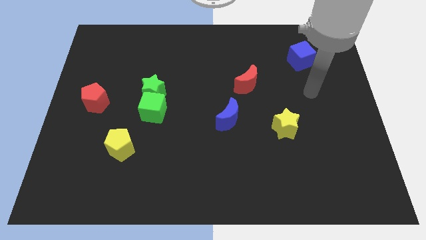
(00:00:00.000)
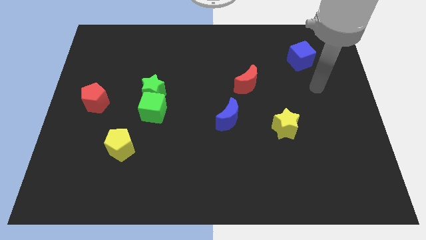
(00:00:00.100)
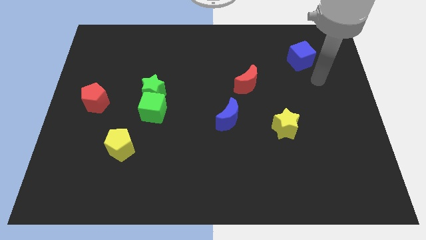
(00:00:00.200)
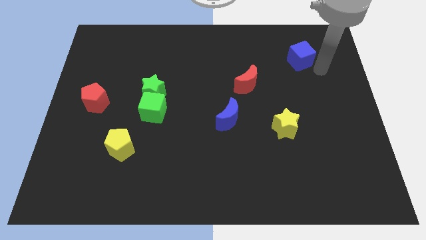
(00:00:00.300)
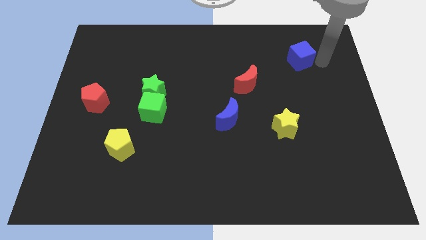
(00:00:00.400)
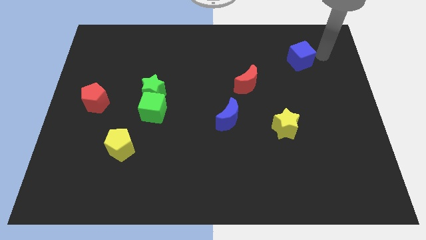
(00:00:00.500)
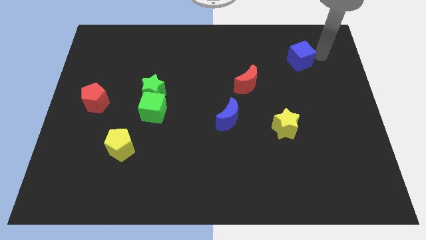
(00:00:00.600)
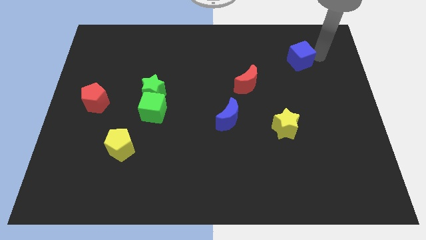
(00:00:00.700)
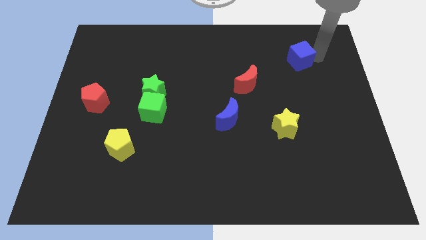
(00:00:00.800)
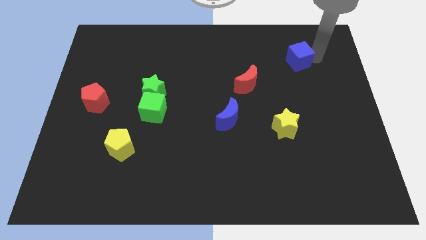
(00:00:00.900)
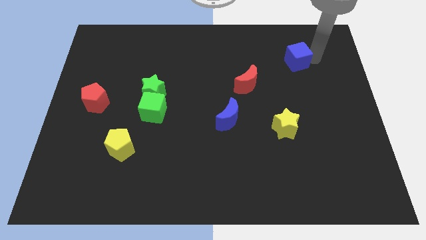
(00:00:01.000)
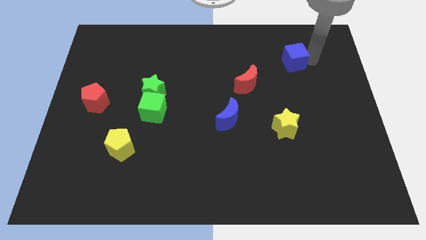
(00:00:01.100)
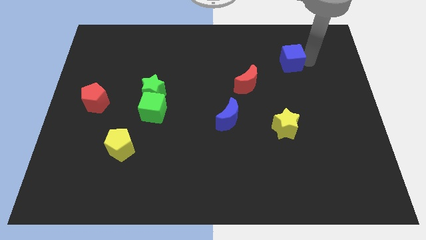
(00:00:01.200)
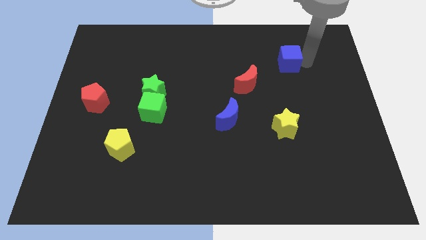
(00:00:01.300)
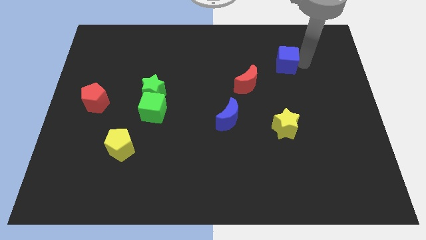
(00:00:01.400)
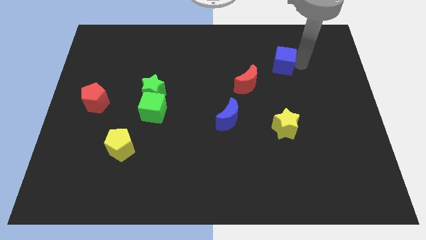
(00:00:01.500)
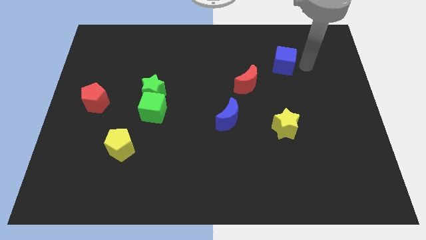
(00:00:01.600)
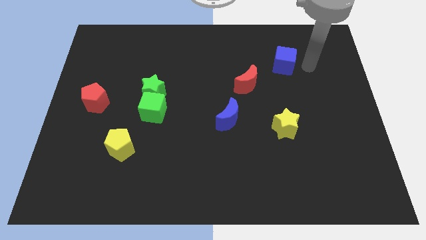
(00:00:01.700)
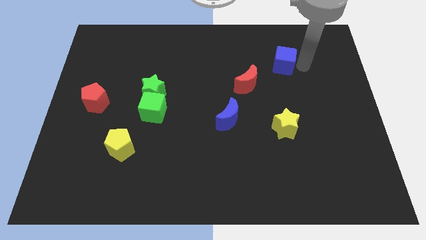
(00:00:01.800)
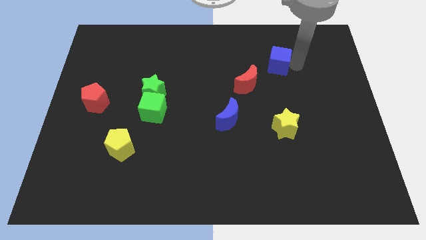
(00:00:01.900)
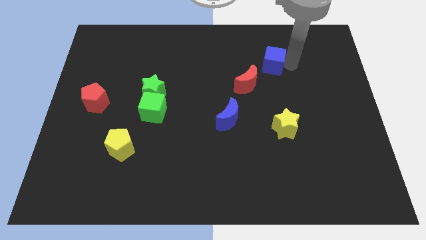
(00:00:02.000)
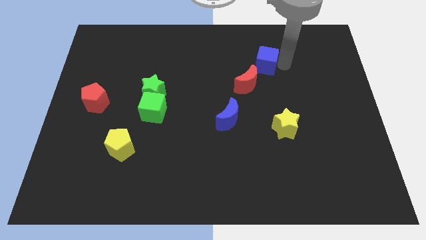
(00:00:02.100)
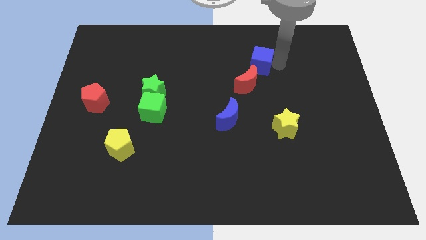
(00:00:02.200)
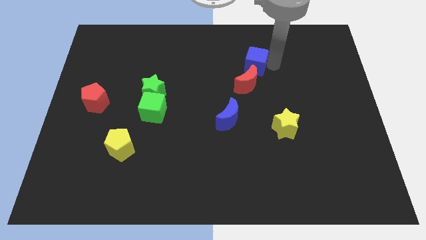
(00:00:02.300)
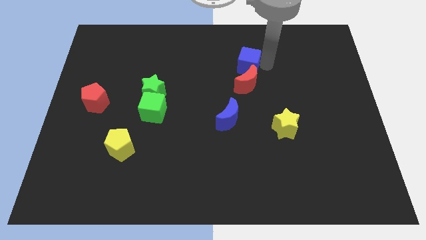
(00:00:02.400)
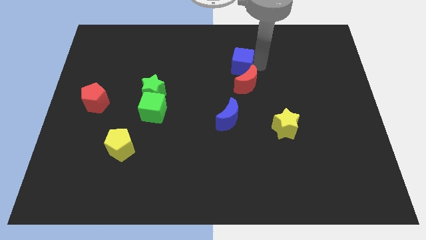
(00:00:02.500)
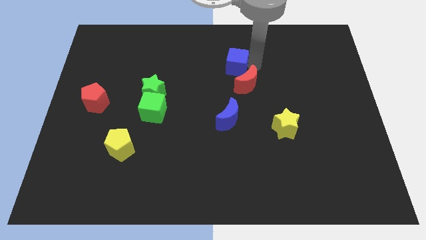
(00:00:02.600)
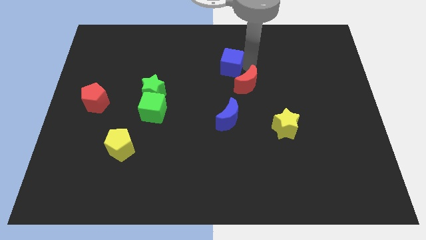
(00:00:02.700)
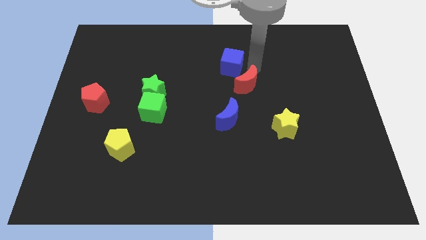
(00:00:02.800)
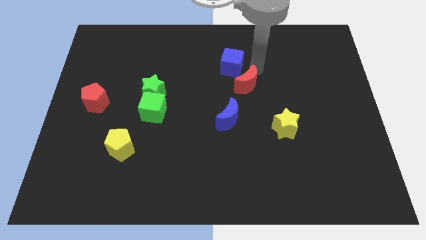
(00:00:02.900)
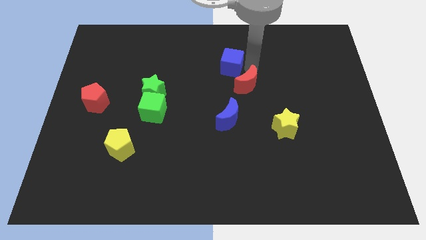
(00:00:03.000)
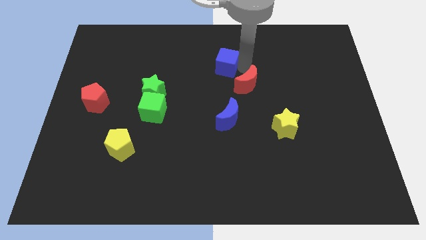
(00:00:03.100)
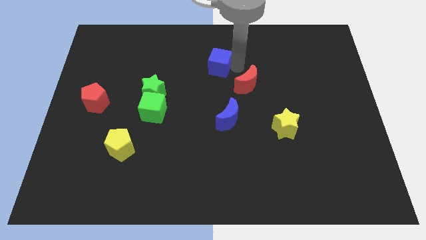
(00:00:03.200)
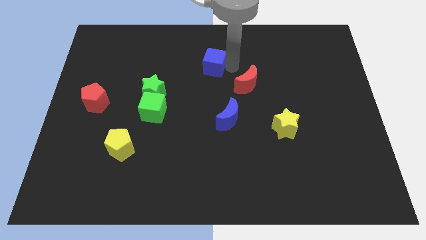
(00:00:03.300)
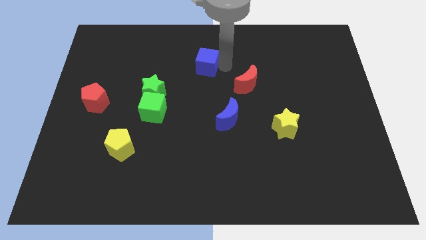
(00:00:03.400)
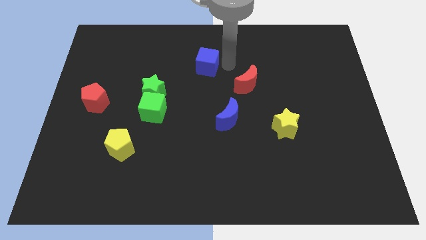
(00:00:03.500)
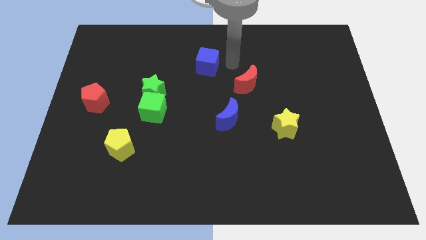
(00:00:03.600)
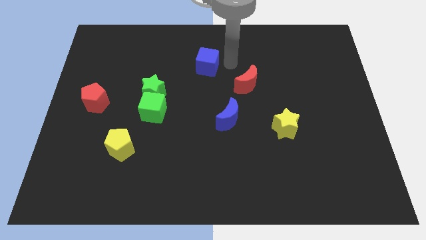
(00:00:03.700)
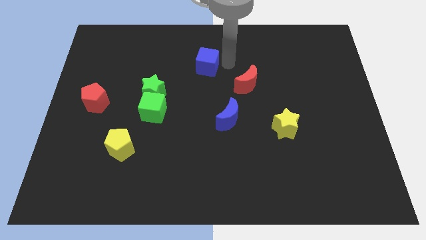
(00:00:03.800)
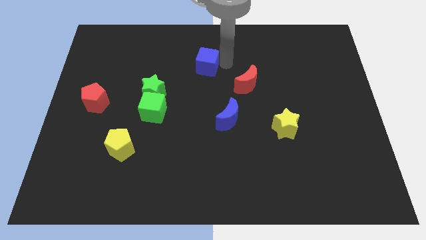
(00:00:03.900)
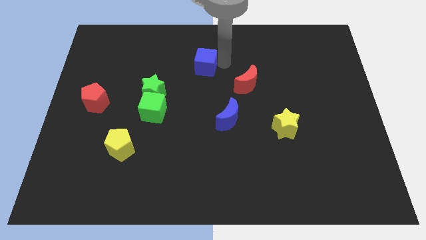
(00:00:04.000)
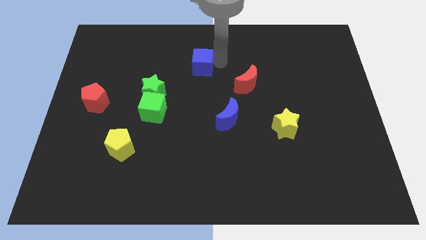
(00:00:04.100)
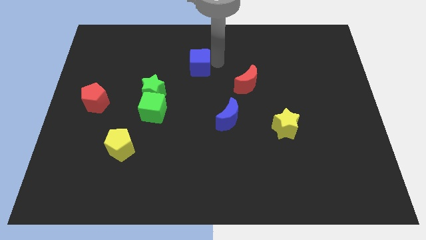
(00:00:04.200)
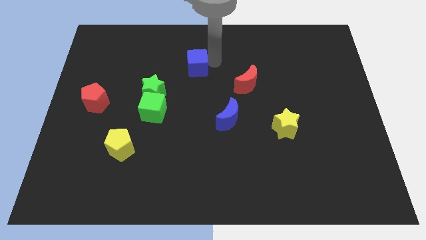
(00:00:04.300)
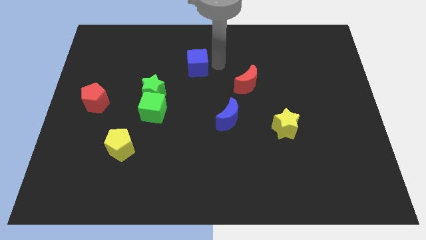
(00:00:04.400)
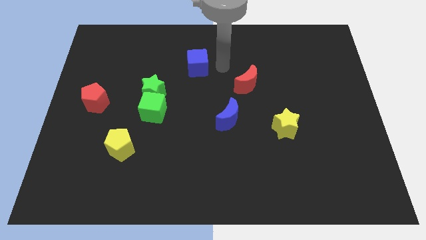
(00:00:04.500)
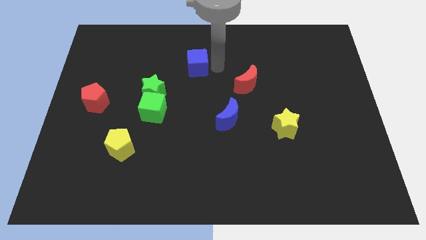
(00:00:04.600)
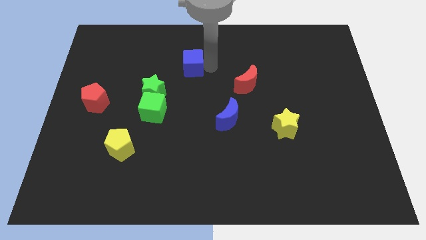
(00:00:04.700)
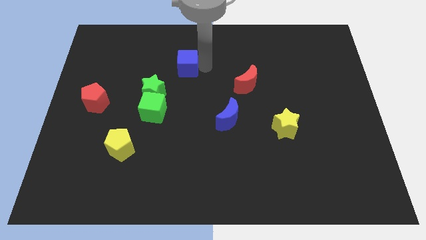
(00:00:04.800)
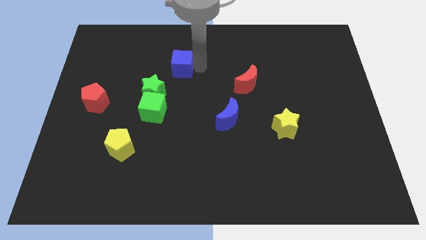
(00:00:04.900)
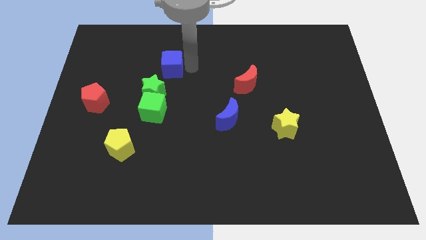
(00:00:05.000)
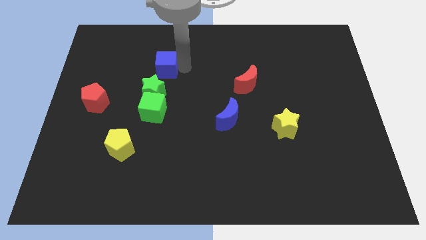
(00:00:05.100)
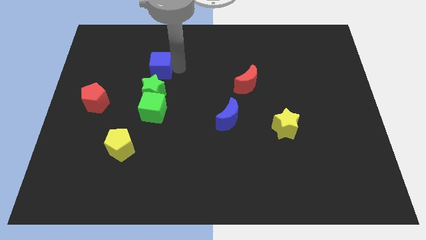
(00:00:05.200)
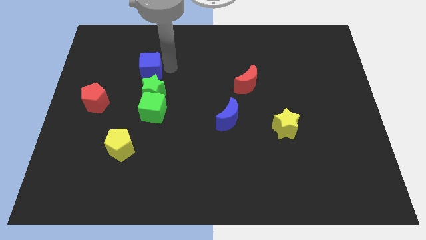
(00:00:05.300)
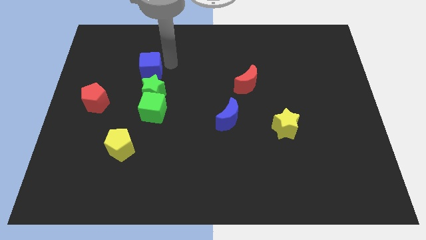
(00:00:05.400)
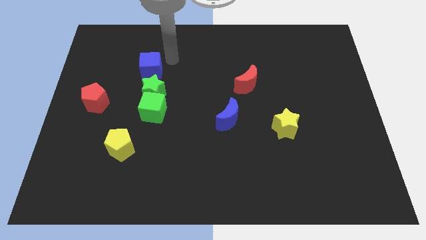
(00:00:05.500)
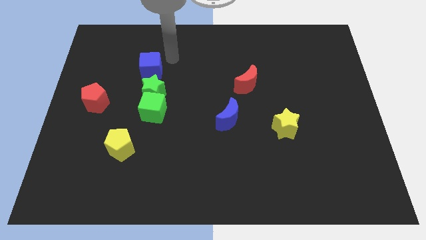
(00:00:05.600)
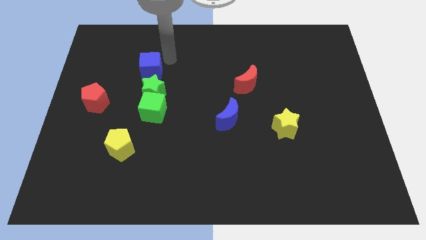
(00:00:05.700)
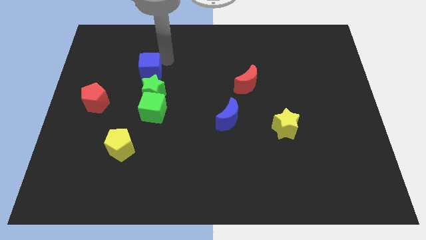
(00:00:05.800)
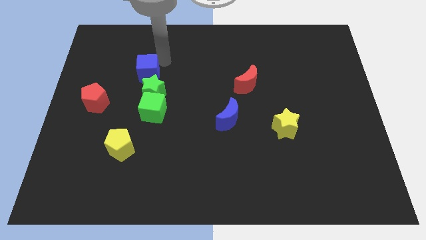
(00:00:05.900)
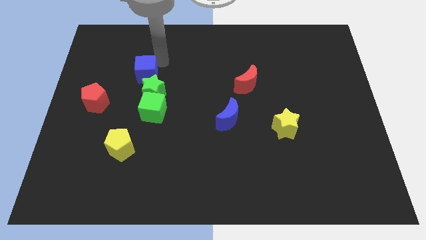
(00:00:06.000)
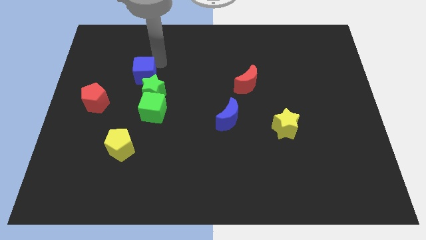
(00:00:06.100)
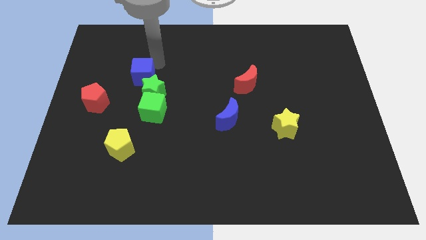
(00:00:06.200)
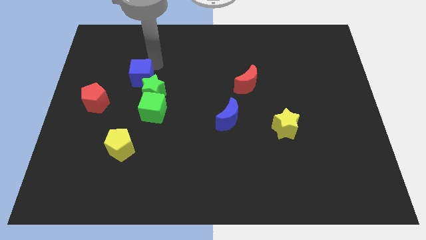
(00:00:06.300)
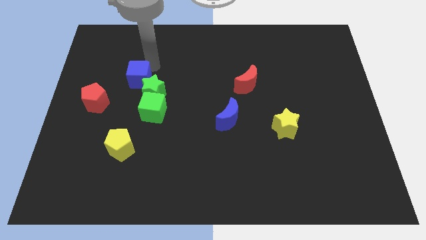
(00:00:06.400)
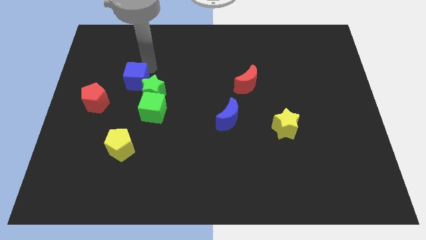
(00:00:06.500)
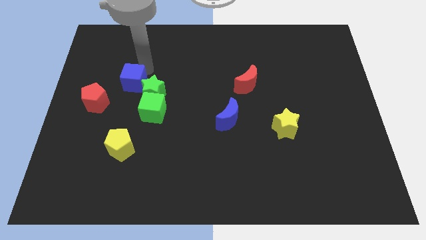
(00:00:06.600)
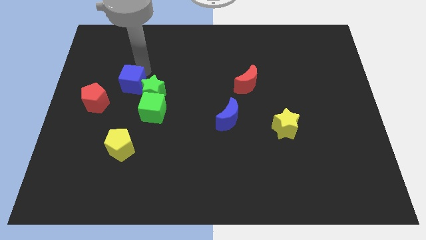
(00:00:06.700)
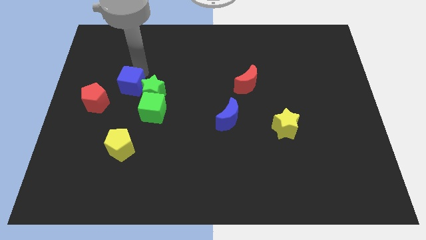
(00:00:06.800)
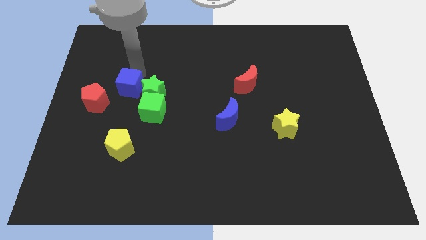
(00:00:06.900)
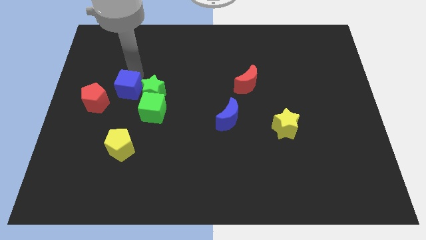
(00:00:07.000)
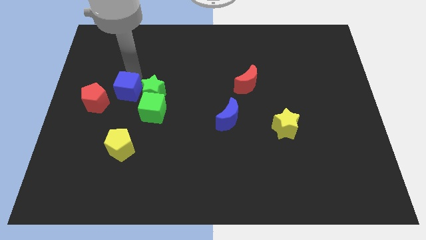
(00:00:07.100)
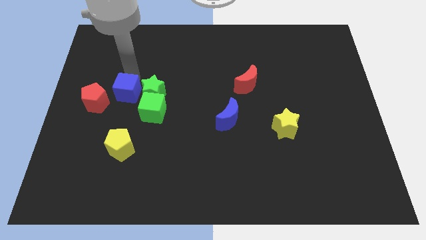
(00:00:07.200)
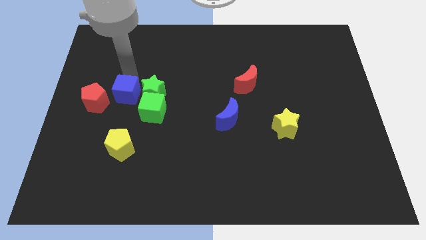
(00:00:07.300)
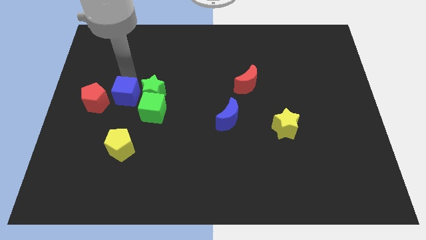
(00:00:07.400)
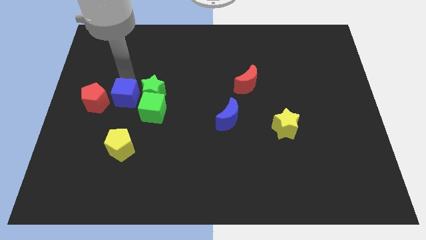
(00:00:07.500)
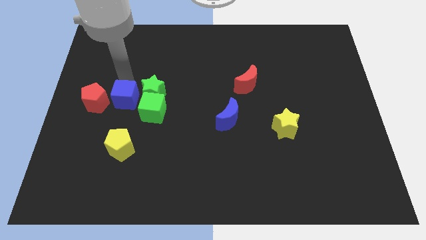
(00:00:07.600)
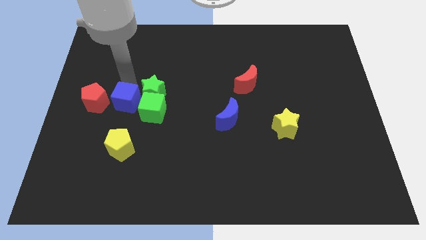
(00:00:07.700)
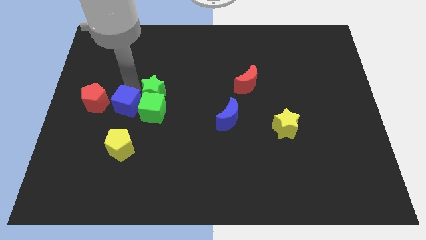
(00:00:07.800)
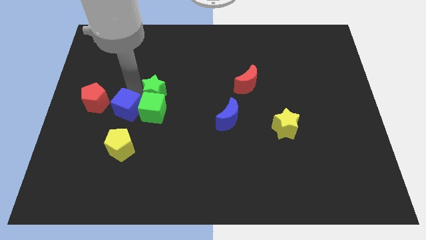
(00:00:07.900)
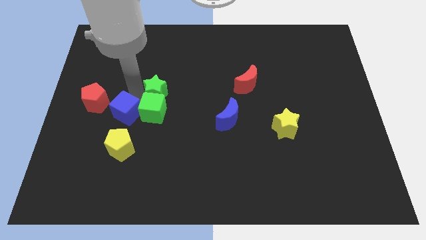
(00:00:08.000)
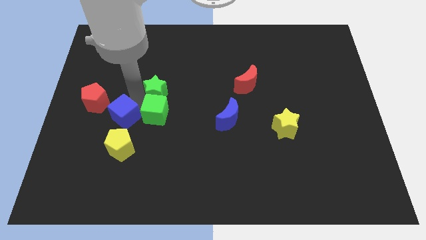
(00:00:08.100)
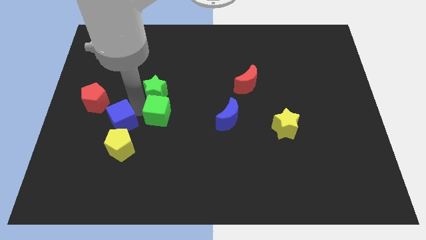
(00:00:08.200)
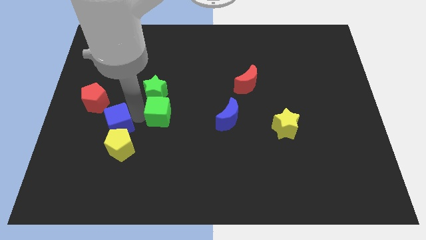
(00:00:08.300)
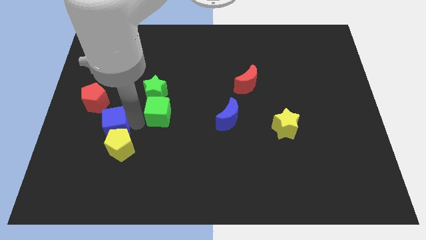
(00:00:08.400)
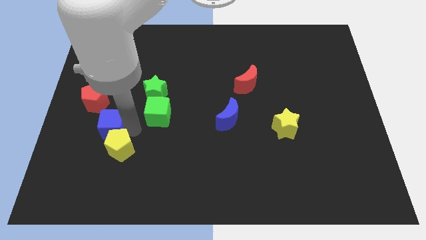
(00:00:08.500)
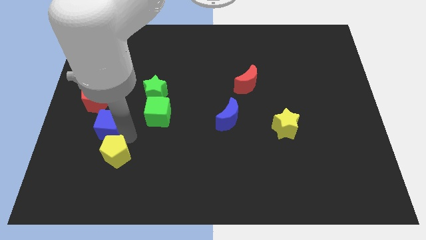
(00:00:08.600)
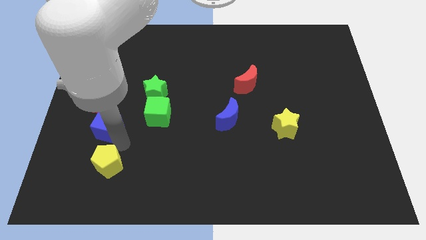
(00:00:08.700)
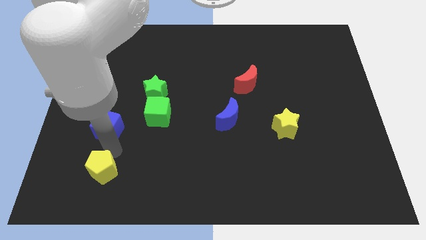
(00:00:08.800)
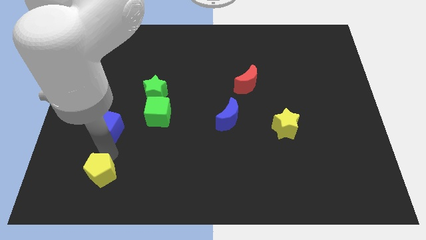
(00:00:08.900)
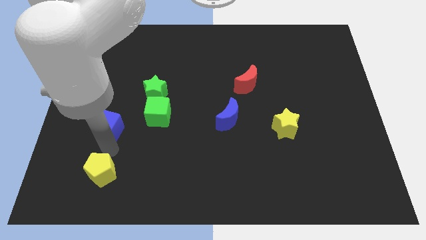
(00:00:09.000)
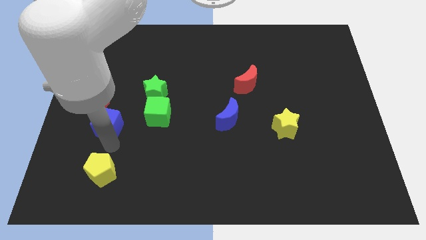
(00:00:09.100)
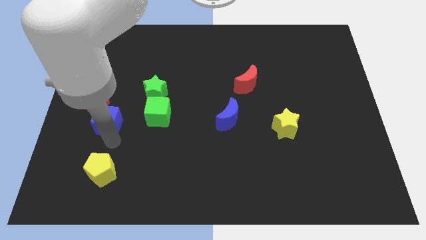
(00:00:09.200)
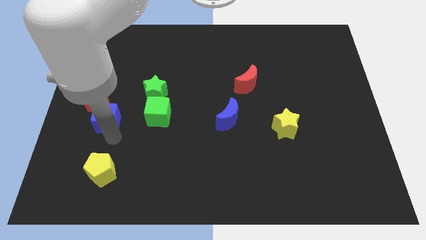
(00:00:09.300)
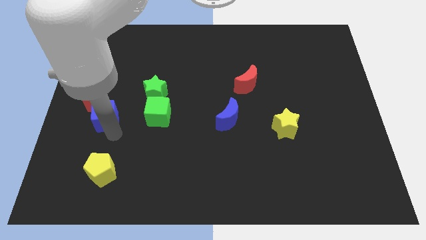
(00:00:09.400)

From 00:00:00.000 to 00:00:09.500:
move the blue cube to the red pentagon
